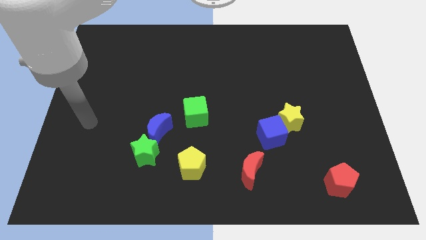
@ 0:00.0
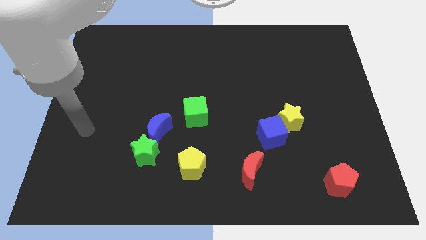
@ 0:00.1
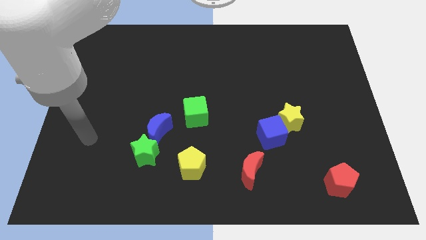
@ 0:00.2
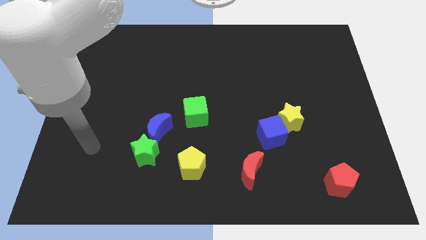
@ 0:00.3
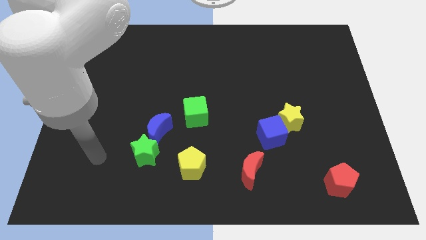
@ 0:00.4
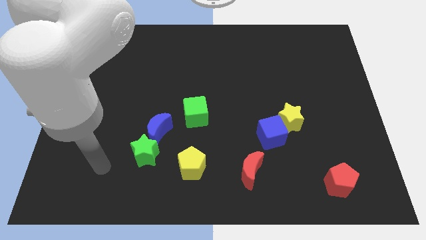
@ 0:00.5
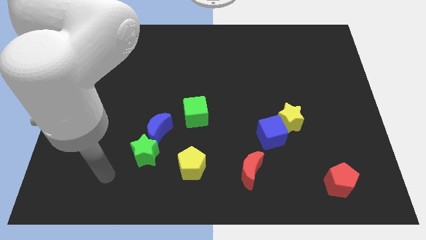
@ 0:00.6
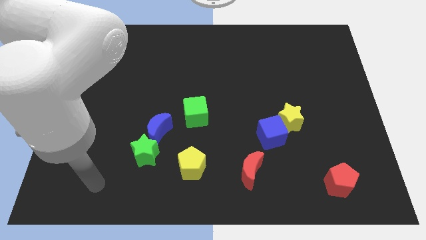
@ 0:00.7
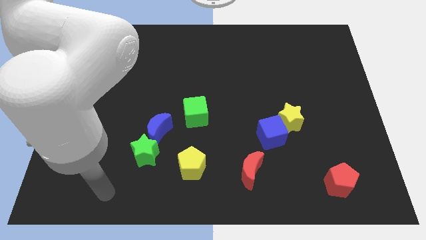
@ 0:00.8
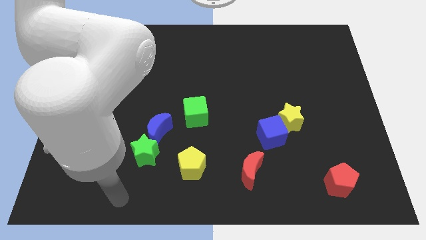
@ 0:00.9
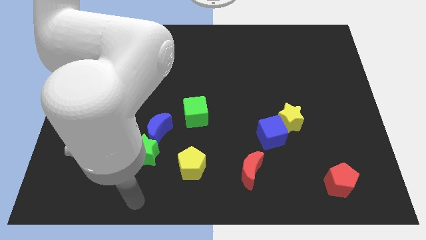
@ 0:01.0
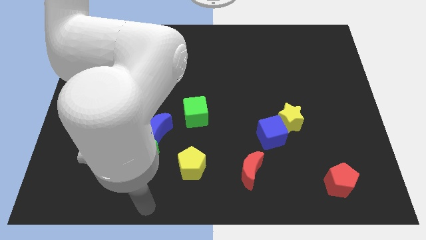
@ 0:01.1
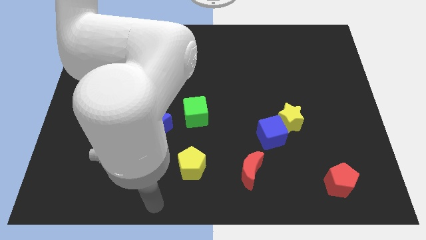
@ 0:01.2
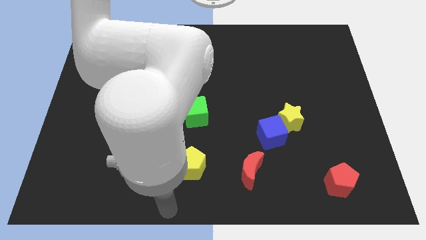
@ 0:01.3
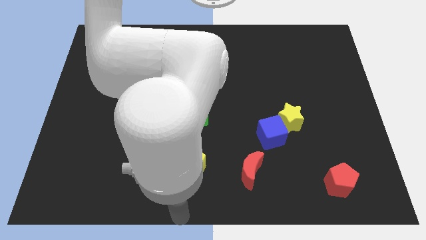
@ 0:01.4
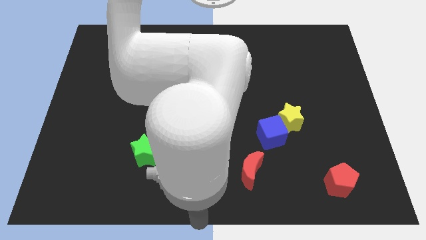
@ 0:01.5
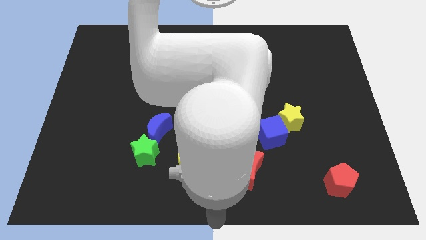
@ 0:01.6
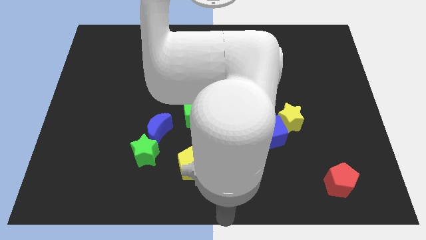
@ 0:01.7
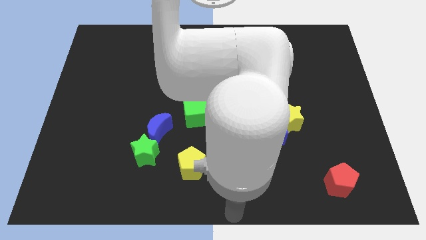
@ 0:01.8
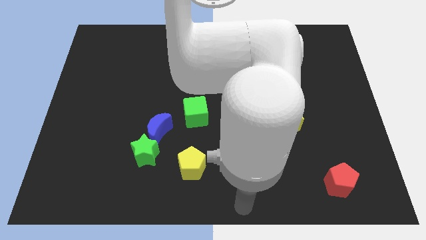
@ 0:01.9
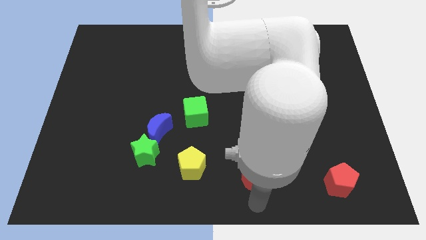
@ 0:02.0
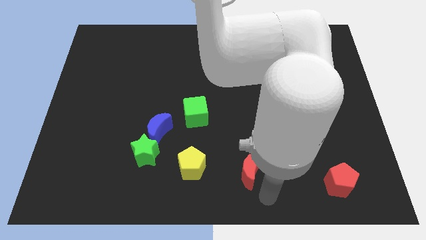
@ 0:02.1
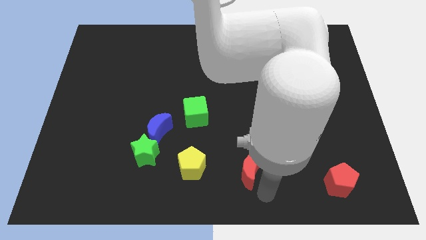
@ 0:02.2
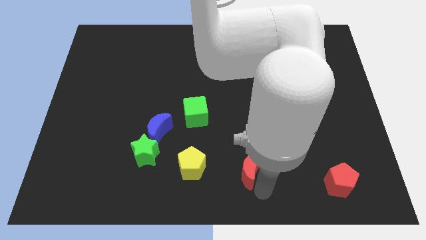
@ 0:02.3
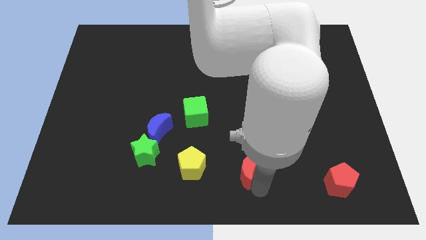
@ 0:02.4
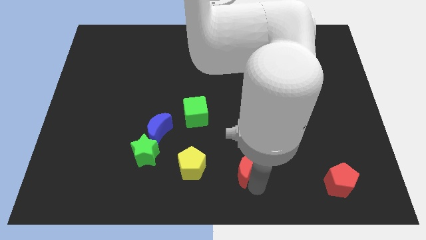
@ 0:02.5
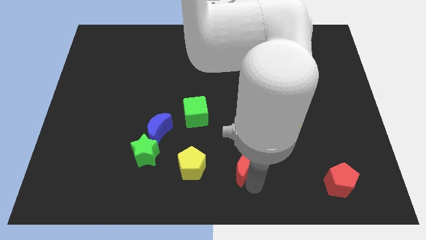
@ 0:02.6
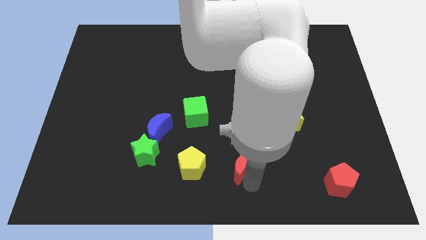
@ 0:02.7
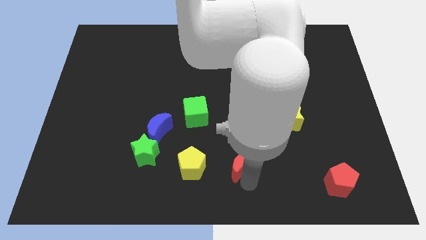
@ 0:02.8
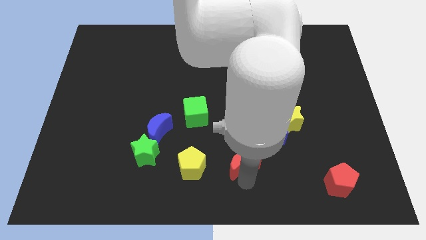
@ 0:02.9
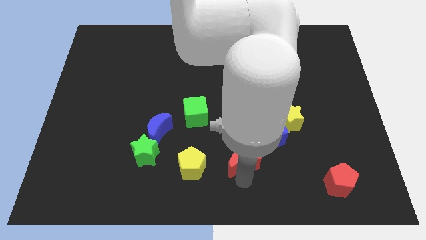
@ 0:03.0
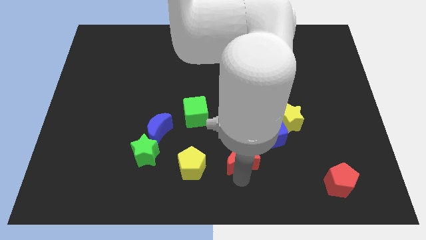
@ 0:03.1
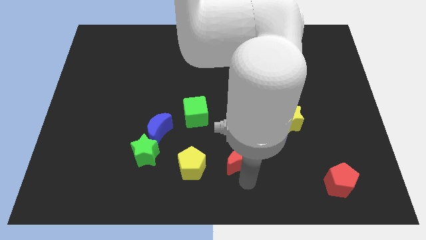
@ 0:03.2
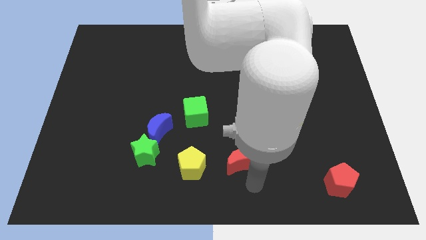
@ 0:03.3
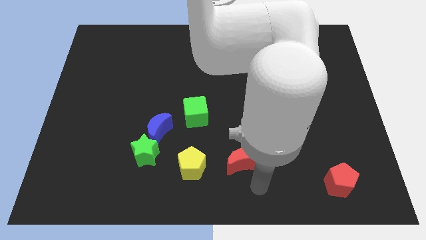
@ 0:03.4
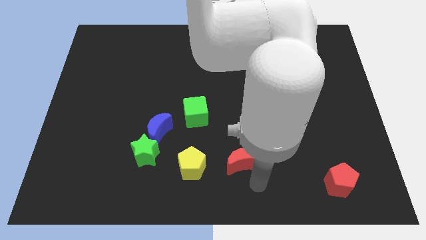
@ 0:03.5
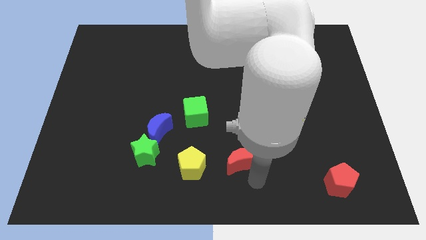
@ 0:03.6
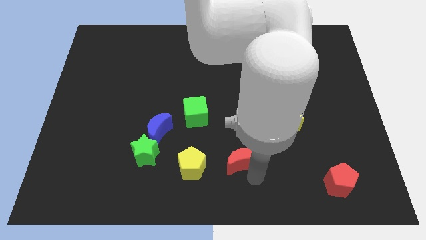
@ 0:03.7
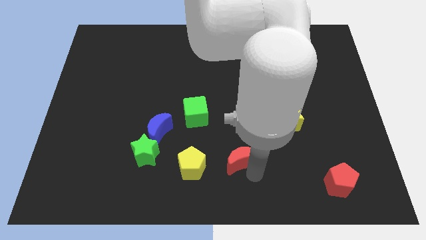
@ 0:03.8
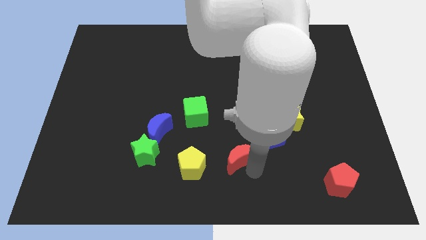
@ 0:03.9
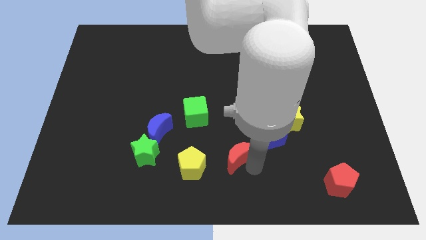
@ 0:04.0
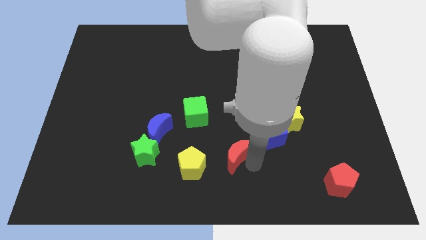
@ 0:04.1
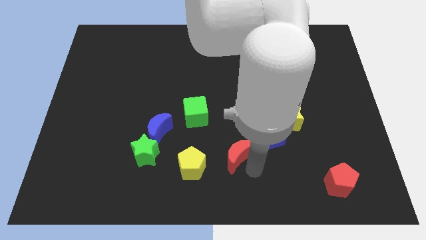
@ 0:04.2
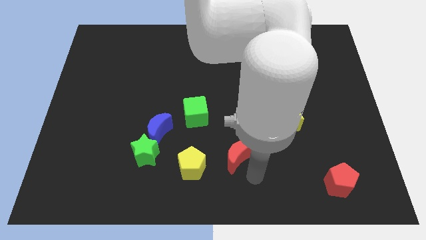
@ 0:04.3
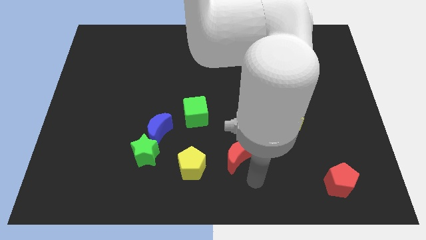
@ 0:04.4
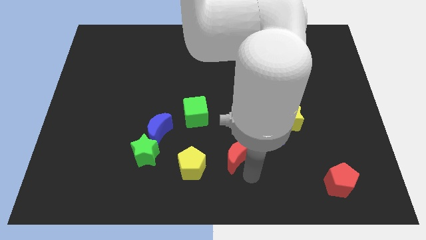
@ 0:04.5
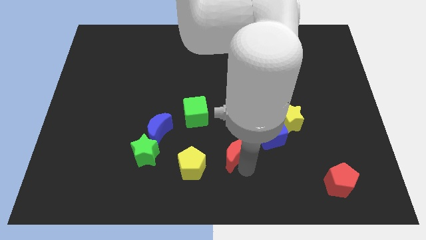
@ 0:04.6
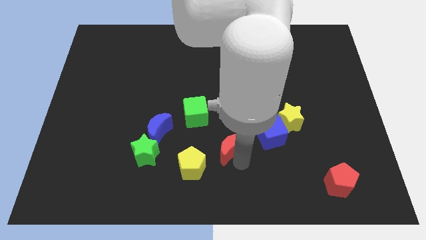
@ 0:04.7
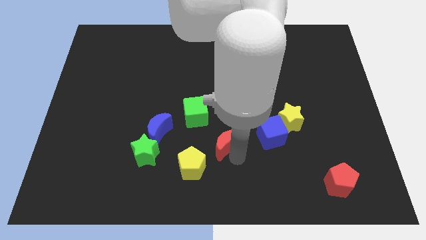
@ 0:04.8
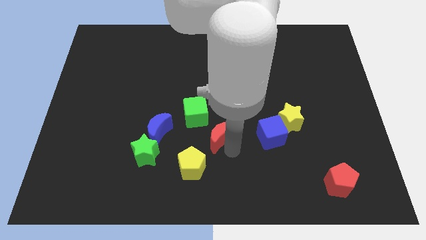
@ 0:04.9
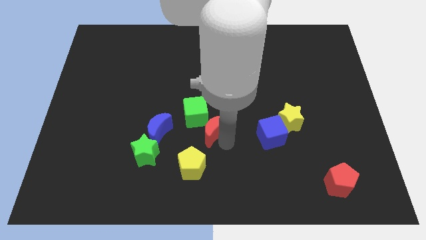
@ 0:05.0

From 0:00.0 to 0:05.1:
push the red moon towards the green cube

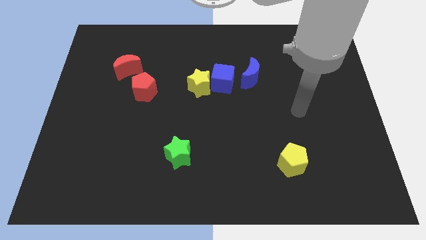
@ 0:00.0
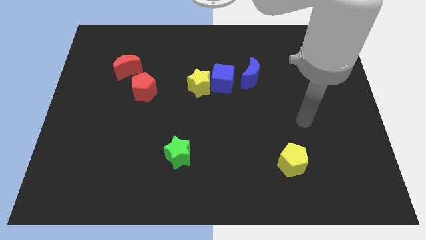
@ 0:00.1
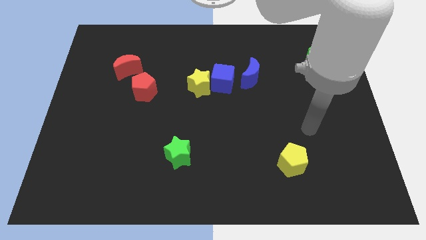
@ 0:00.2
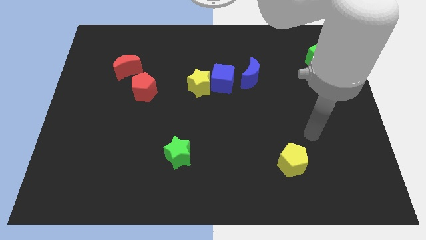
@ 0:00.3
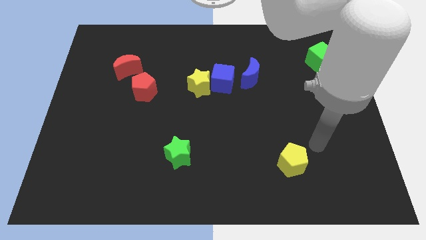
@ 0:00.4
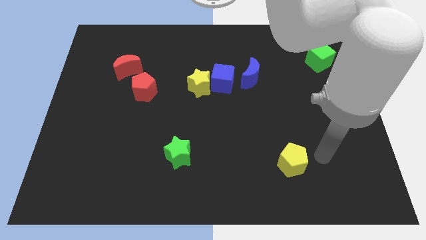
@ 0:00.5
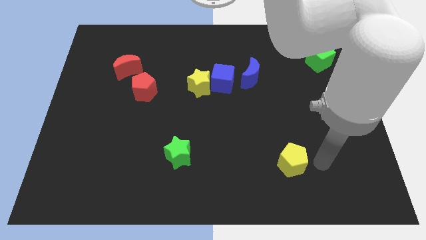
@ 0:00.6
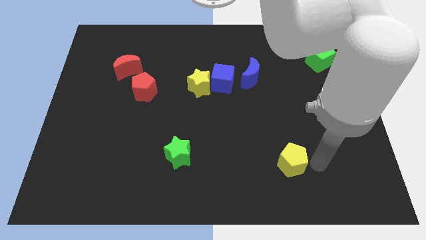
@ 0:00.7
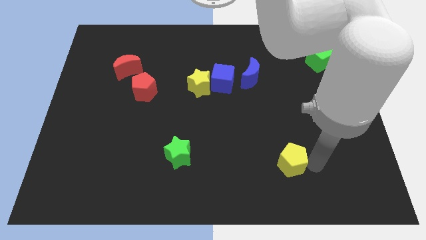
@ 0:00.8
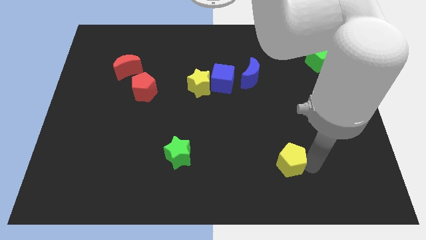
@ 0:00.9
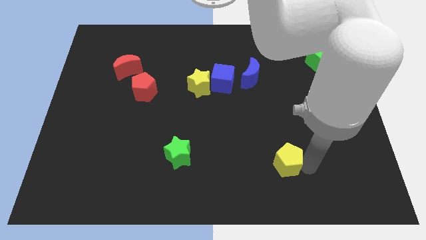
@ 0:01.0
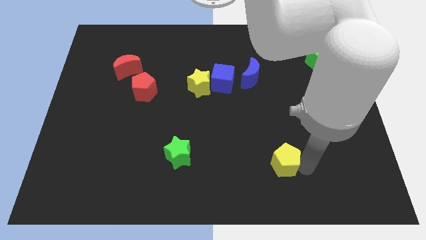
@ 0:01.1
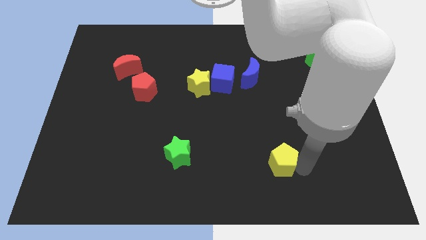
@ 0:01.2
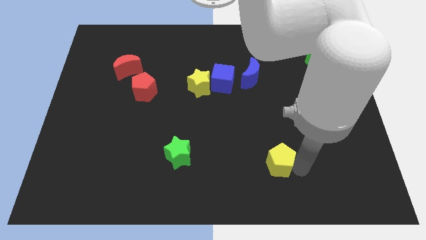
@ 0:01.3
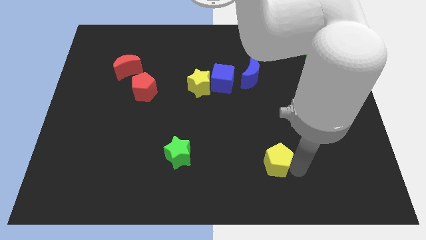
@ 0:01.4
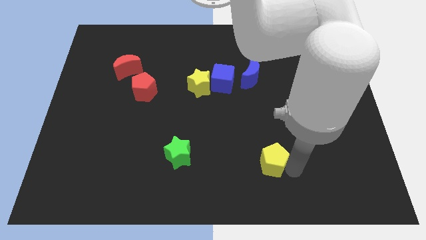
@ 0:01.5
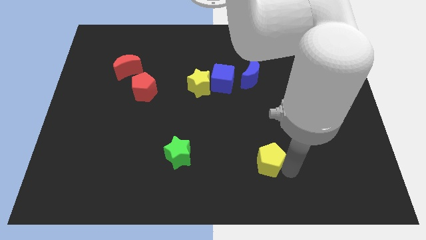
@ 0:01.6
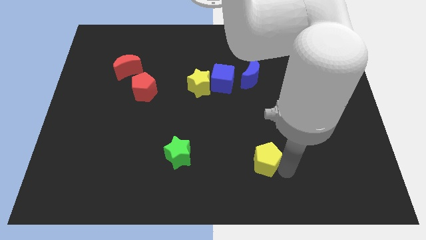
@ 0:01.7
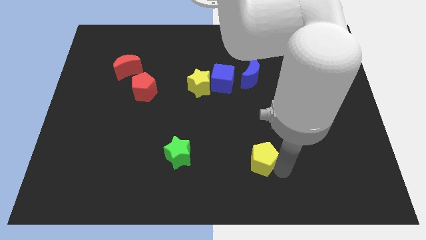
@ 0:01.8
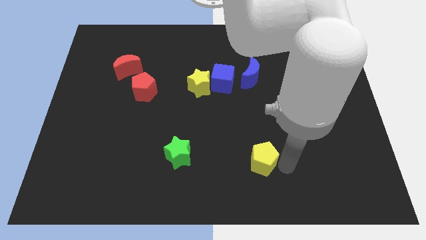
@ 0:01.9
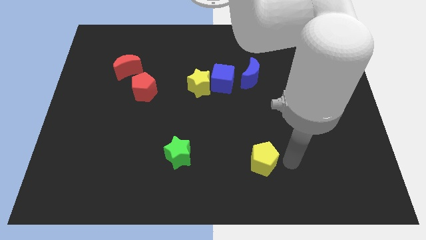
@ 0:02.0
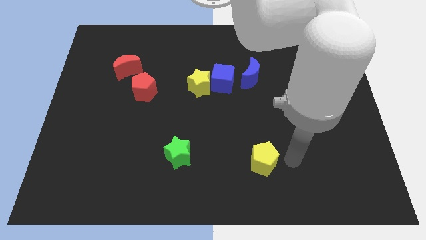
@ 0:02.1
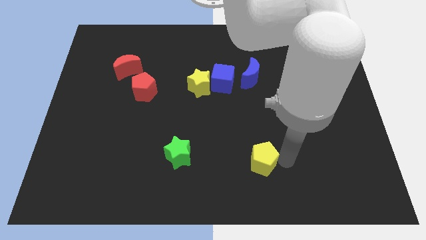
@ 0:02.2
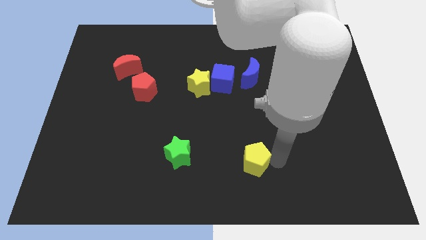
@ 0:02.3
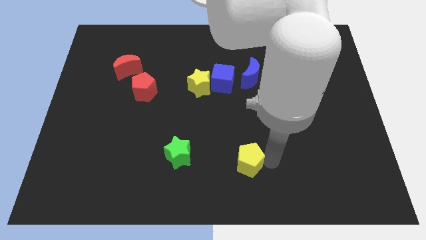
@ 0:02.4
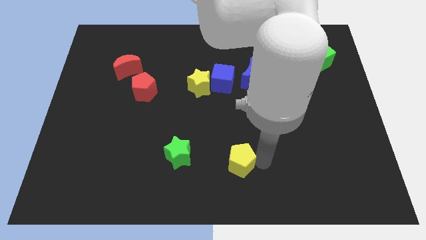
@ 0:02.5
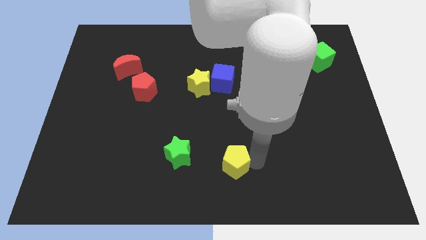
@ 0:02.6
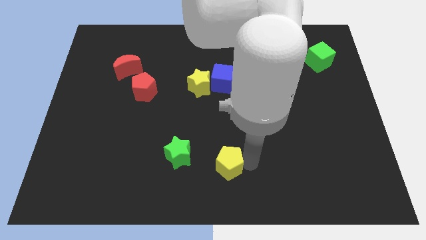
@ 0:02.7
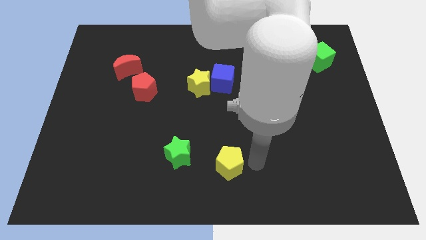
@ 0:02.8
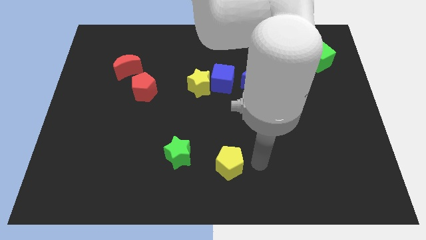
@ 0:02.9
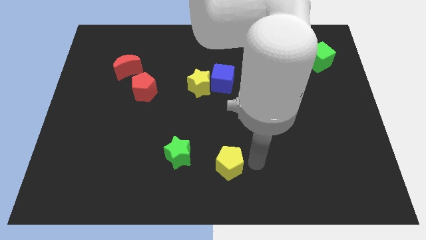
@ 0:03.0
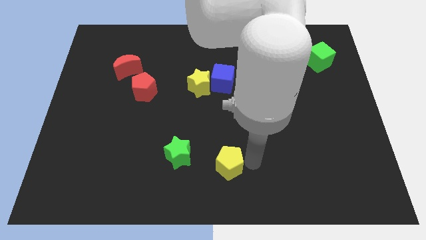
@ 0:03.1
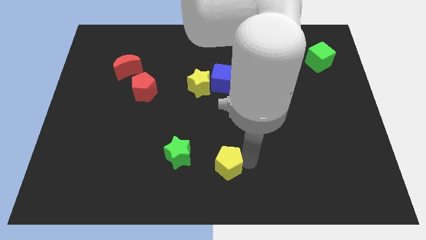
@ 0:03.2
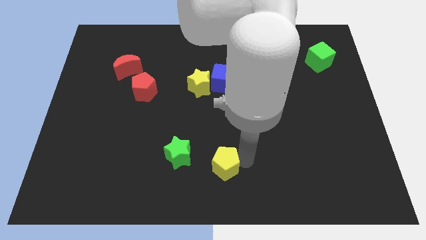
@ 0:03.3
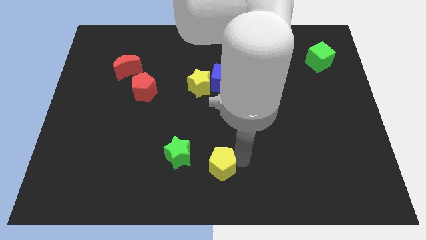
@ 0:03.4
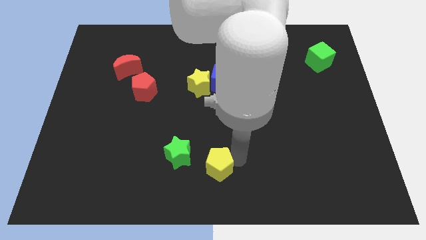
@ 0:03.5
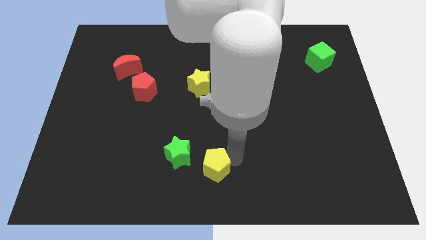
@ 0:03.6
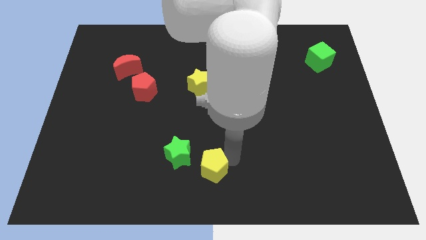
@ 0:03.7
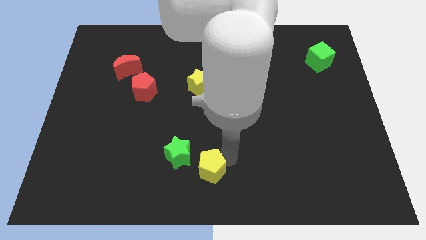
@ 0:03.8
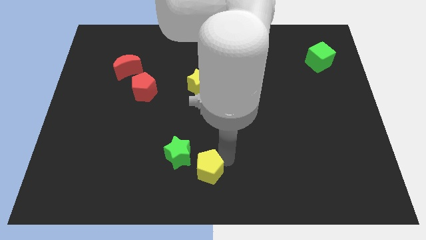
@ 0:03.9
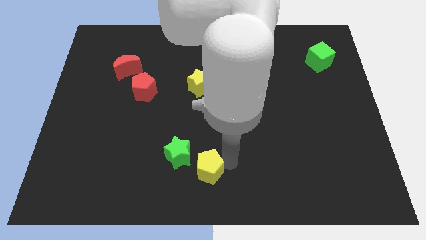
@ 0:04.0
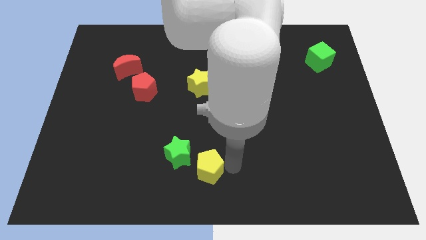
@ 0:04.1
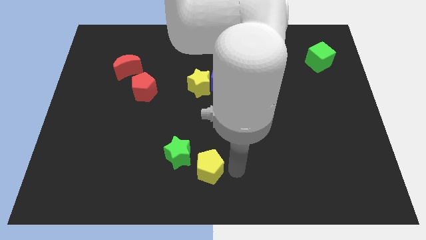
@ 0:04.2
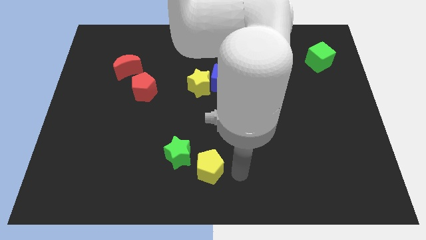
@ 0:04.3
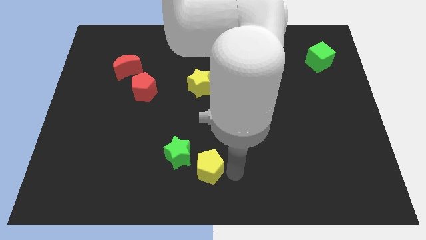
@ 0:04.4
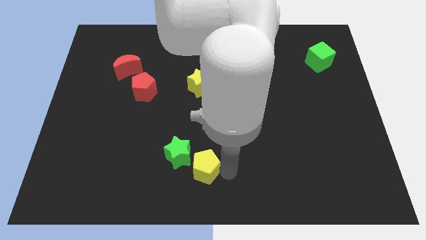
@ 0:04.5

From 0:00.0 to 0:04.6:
put the yellow pentagon to the green star
